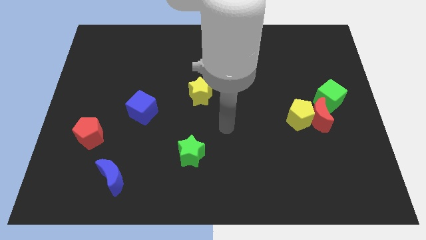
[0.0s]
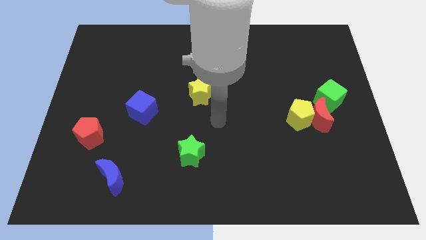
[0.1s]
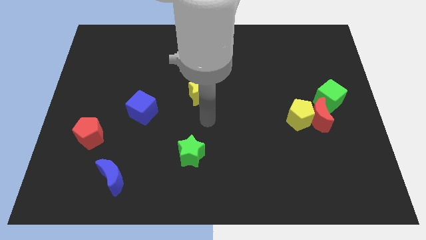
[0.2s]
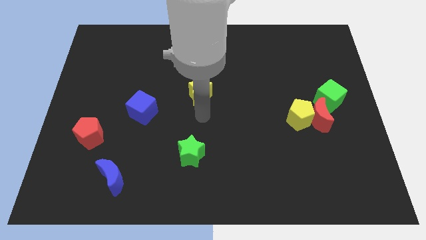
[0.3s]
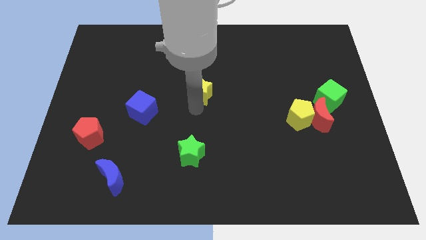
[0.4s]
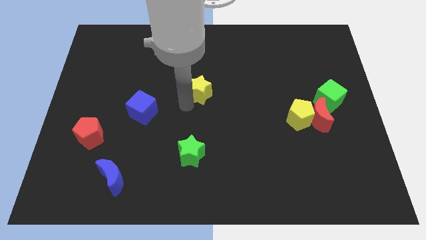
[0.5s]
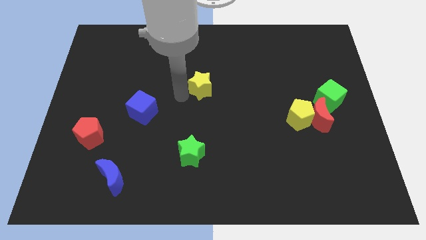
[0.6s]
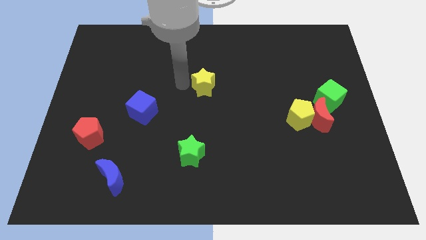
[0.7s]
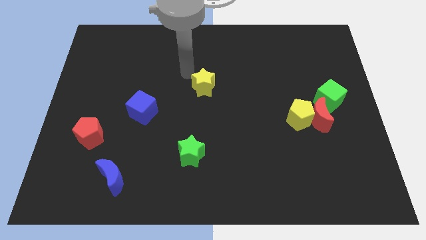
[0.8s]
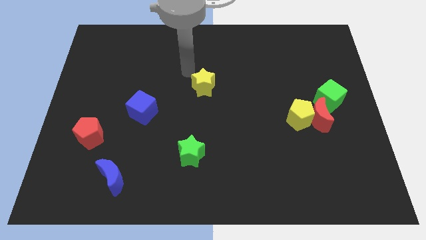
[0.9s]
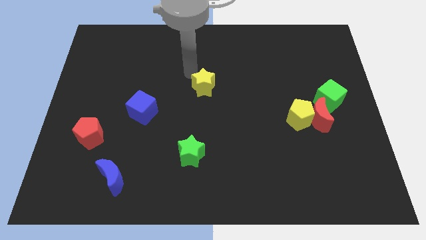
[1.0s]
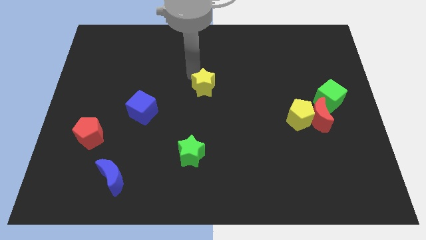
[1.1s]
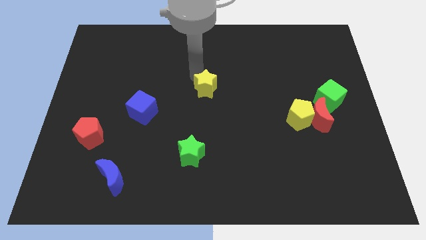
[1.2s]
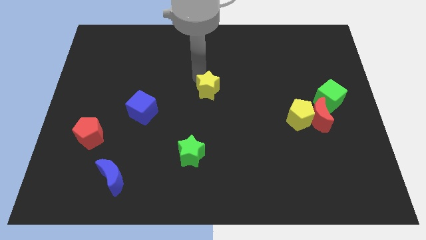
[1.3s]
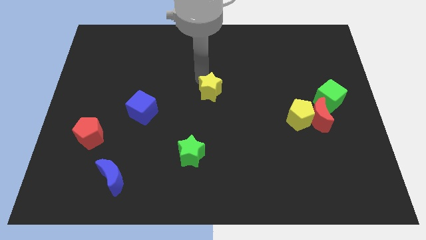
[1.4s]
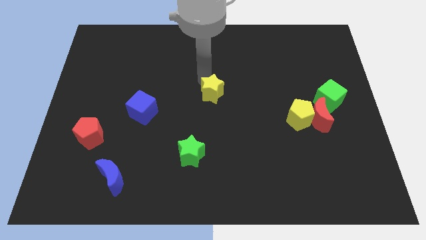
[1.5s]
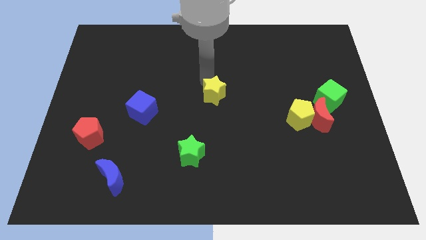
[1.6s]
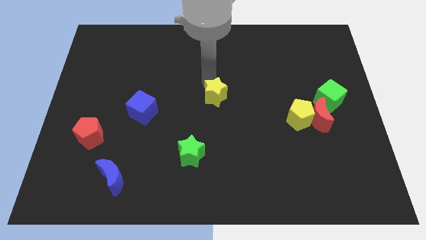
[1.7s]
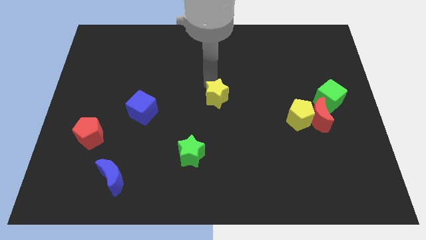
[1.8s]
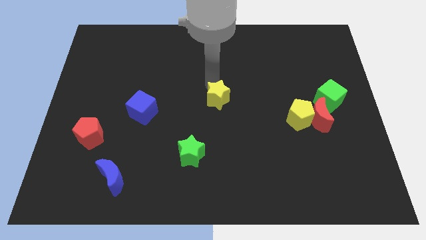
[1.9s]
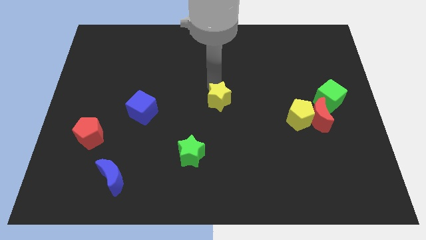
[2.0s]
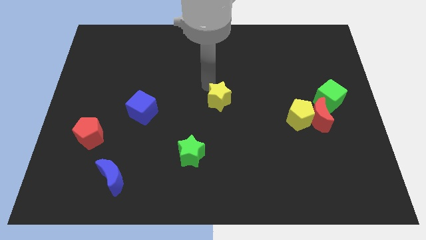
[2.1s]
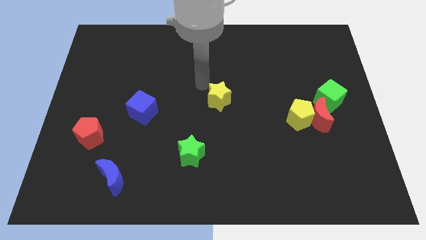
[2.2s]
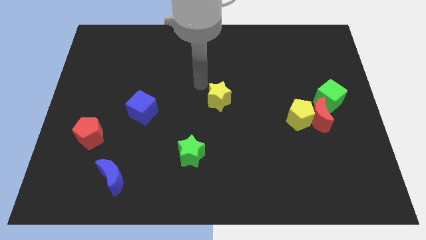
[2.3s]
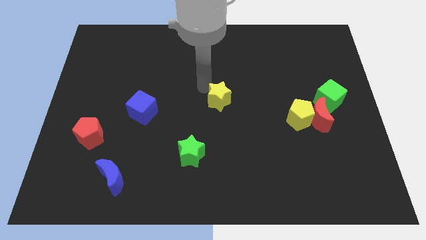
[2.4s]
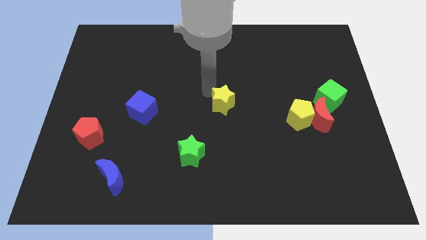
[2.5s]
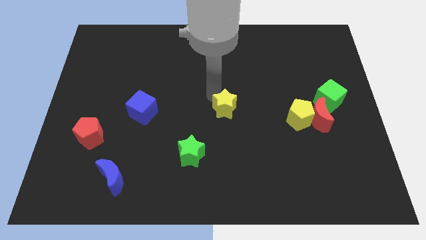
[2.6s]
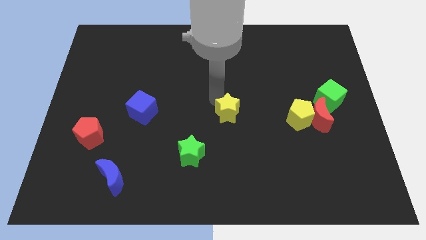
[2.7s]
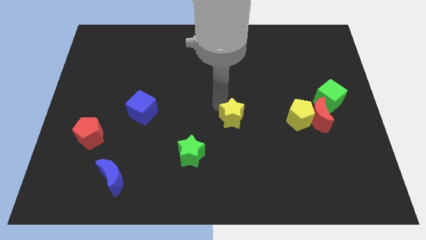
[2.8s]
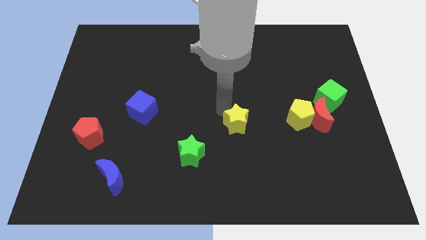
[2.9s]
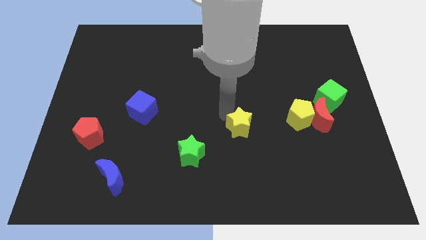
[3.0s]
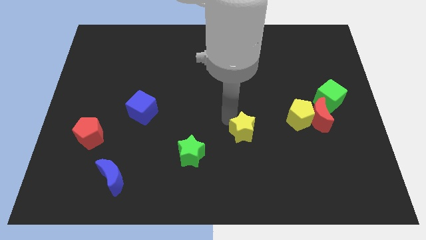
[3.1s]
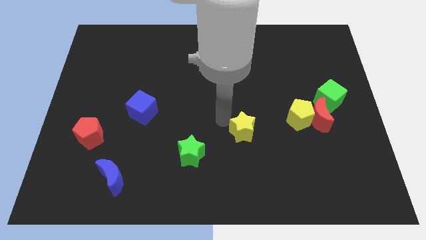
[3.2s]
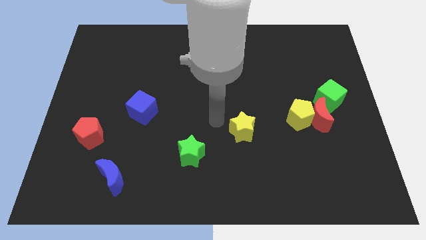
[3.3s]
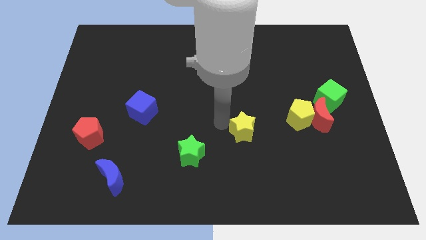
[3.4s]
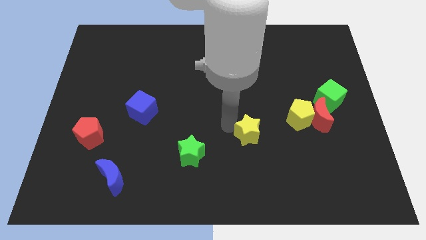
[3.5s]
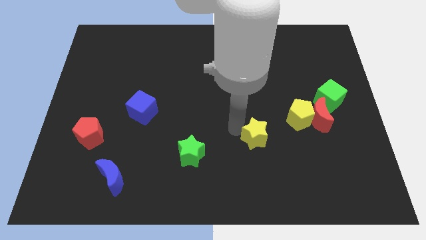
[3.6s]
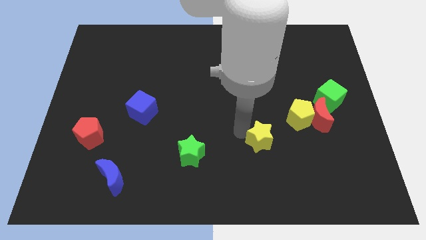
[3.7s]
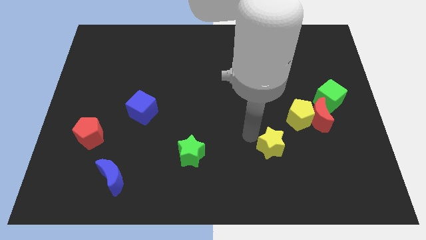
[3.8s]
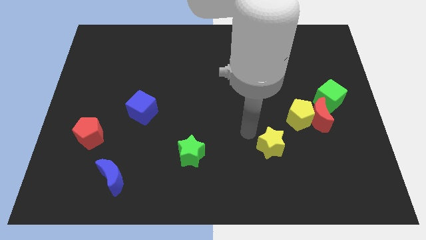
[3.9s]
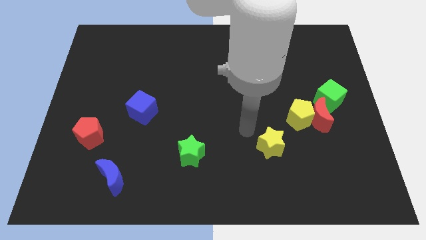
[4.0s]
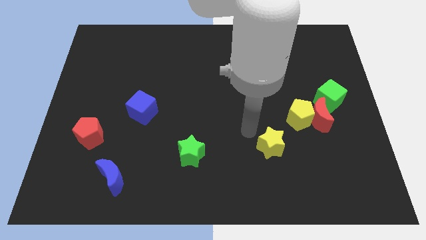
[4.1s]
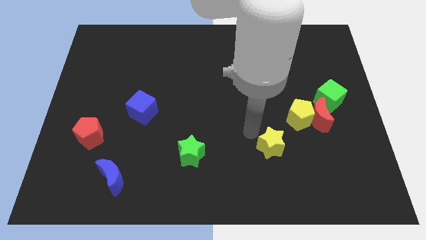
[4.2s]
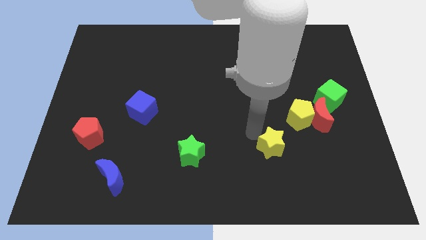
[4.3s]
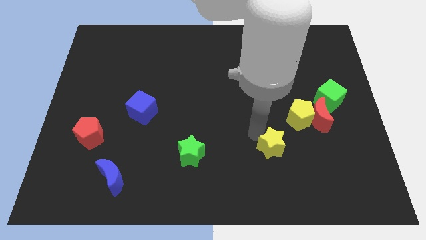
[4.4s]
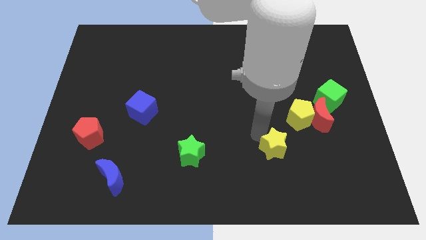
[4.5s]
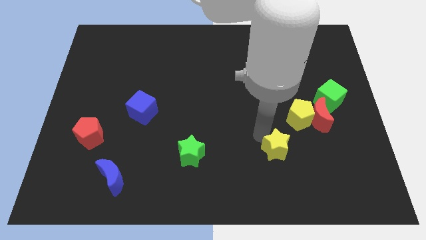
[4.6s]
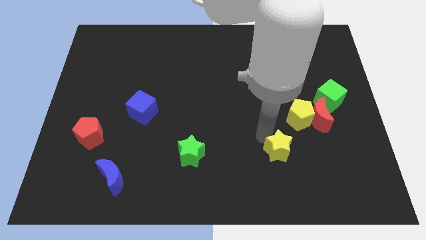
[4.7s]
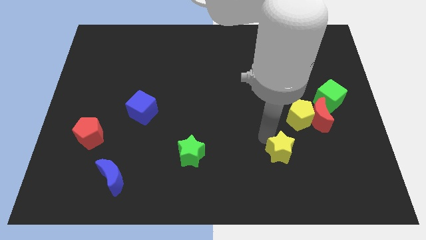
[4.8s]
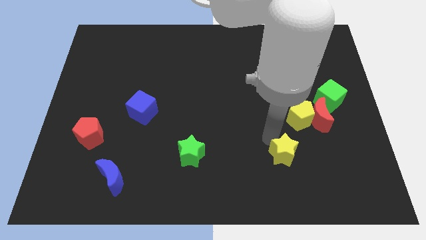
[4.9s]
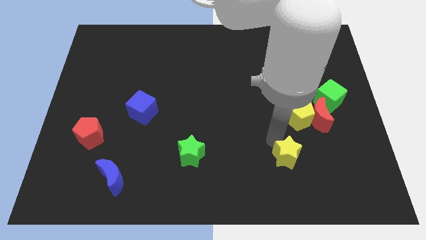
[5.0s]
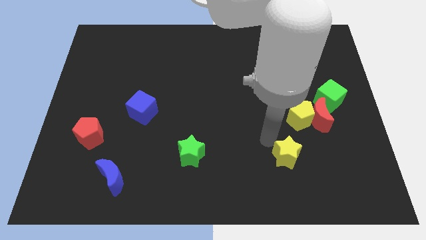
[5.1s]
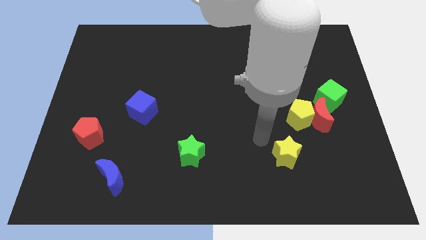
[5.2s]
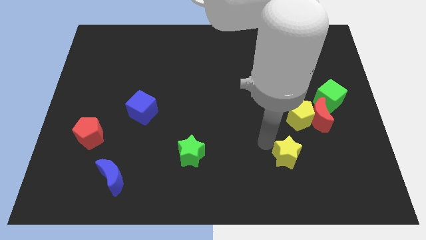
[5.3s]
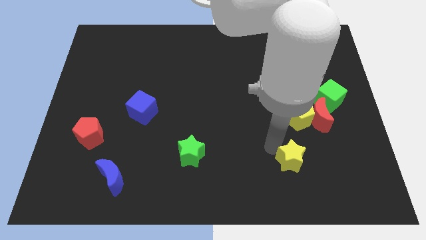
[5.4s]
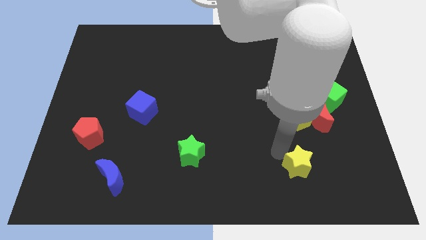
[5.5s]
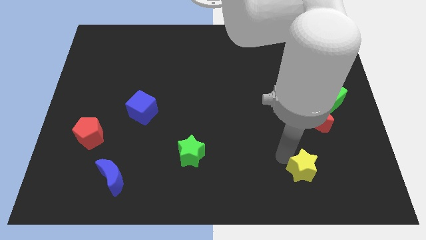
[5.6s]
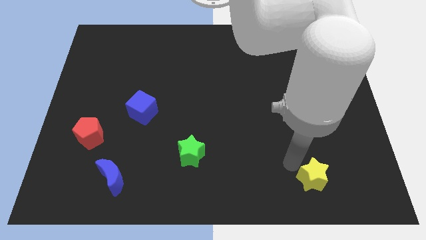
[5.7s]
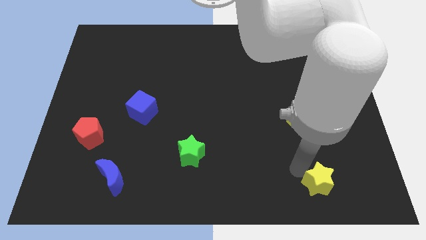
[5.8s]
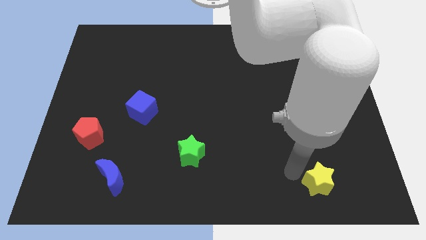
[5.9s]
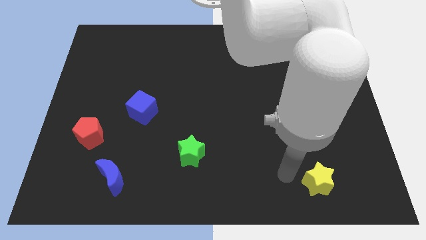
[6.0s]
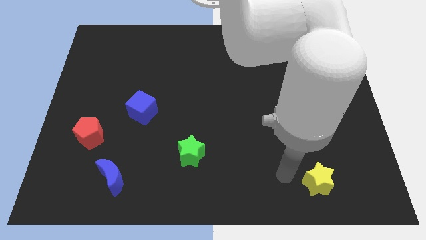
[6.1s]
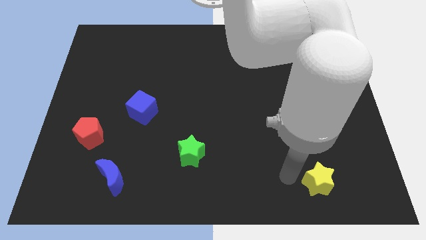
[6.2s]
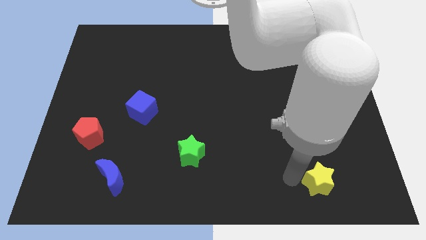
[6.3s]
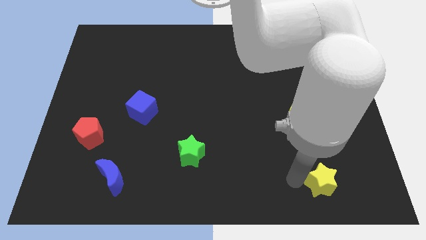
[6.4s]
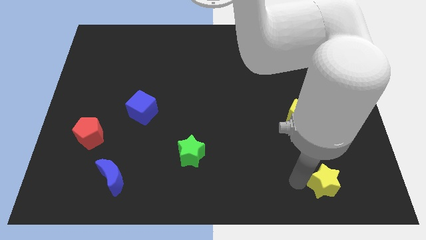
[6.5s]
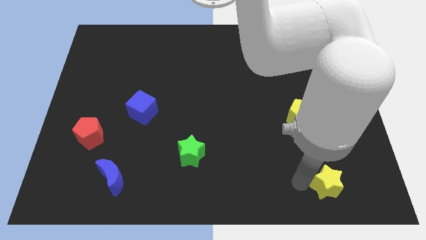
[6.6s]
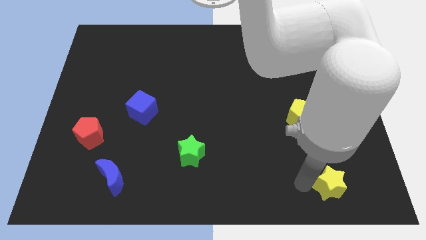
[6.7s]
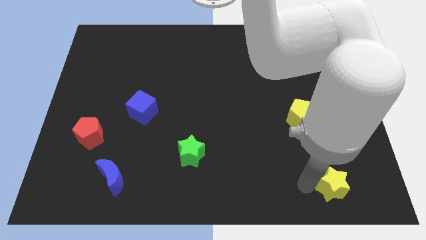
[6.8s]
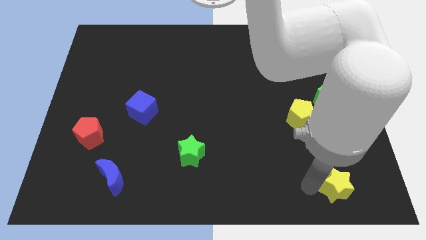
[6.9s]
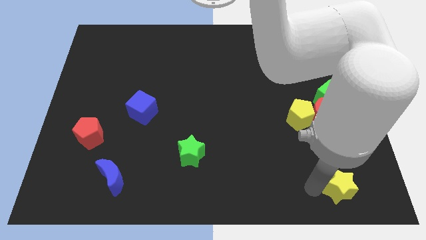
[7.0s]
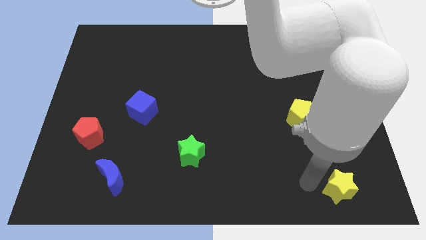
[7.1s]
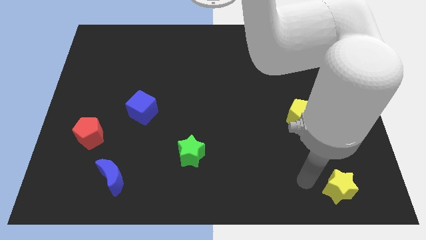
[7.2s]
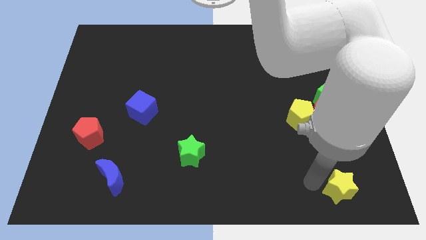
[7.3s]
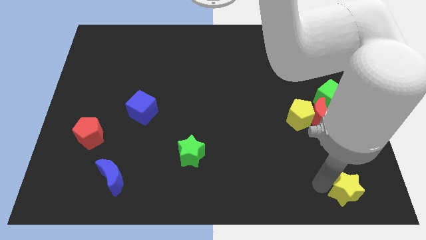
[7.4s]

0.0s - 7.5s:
put the yellow star to the lower right corner
